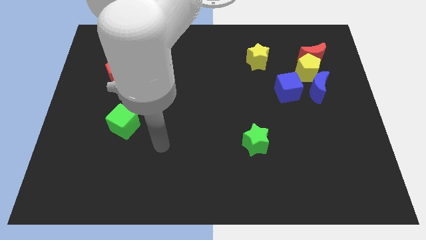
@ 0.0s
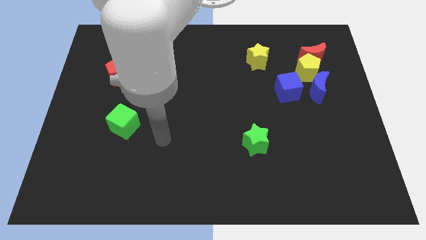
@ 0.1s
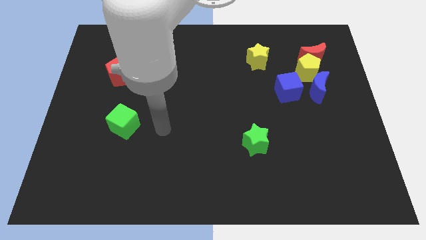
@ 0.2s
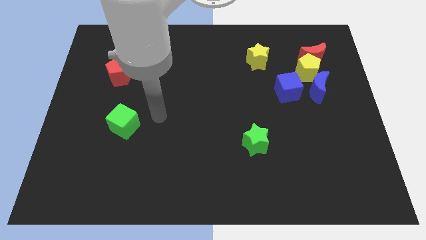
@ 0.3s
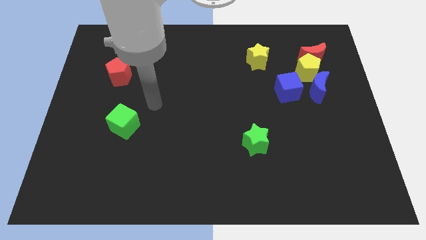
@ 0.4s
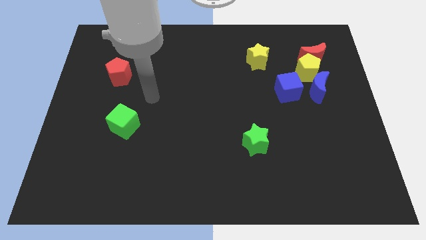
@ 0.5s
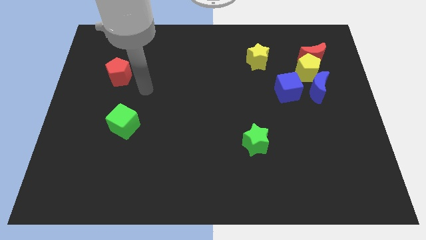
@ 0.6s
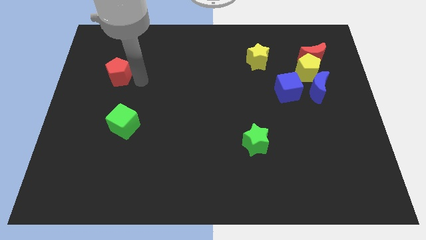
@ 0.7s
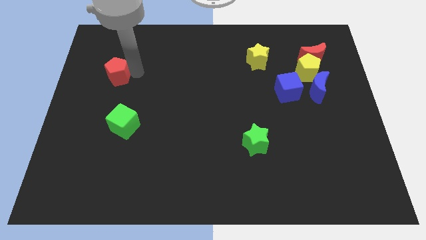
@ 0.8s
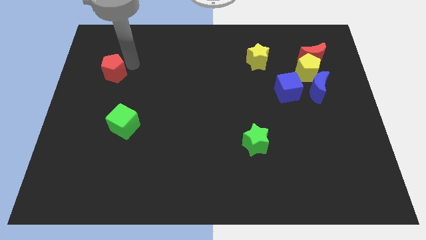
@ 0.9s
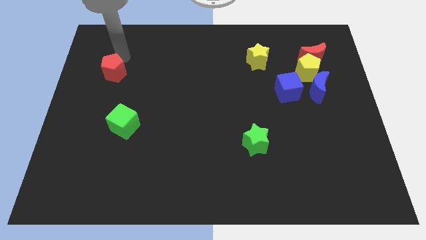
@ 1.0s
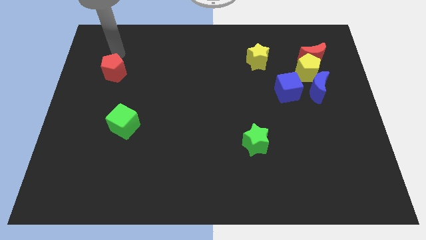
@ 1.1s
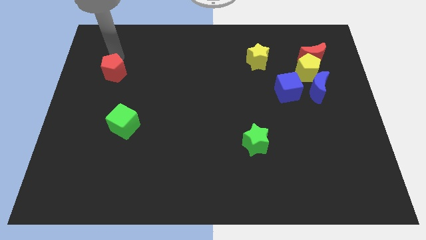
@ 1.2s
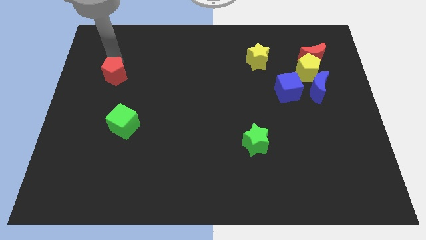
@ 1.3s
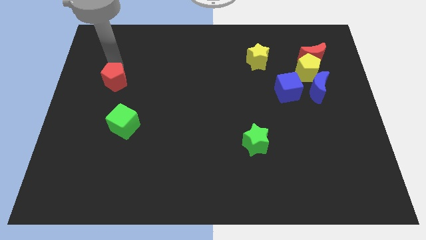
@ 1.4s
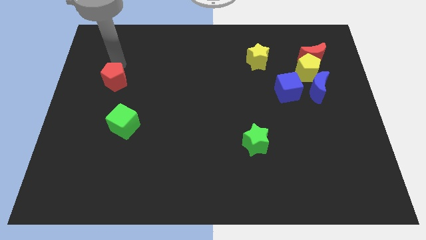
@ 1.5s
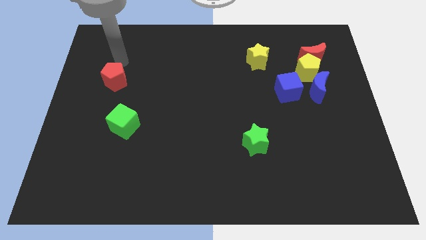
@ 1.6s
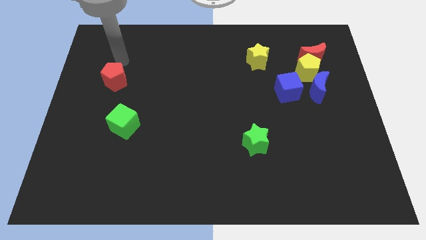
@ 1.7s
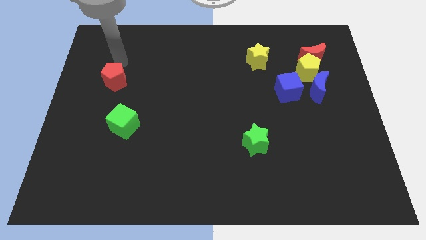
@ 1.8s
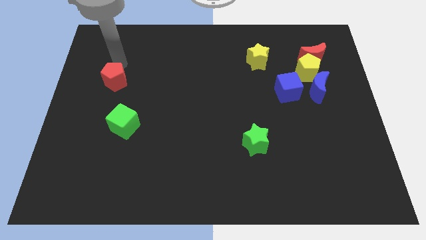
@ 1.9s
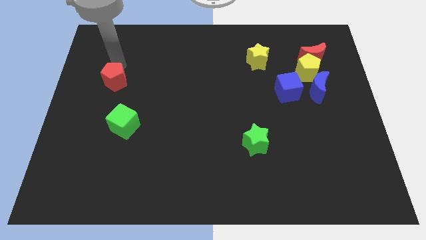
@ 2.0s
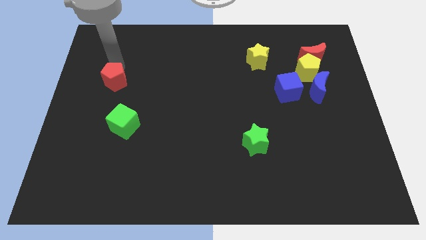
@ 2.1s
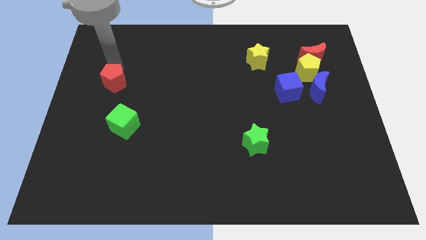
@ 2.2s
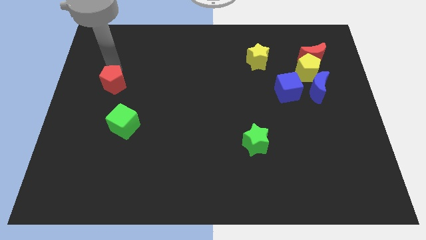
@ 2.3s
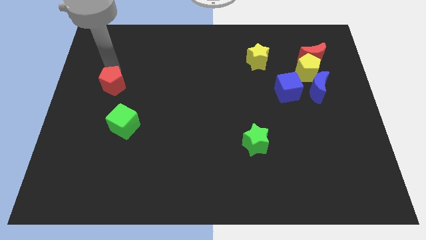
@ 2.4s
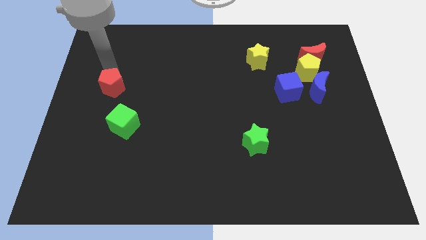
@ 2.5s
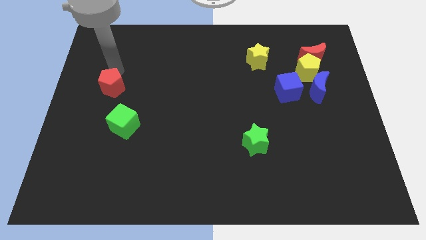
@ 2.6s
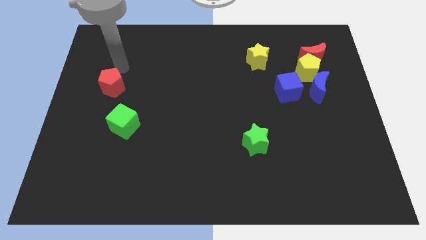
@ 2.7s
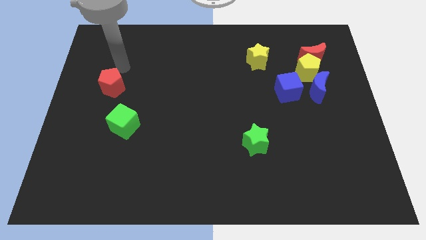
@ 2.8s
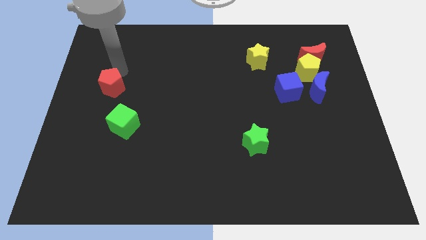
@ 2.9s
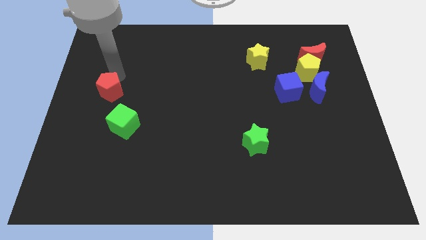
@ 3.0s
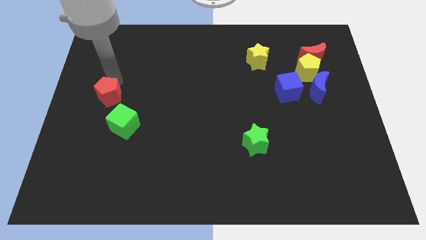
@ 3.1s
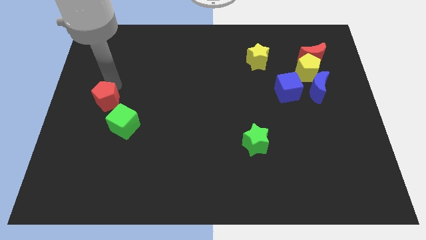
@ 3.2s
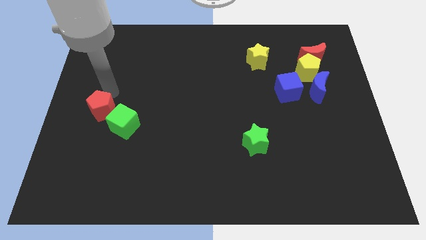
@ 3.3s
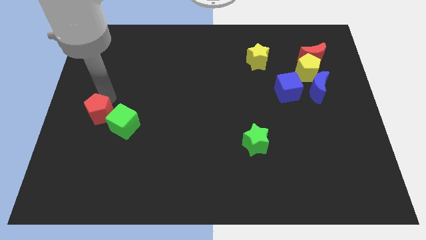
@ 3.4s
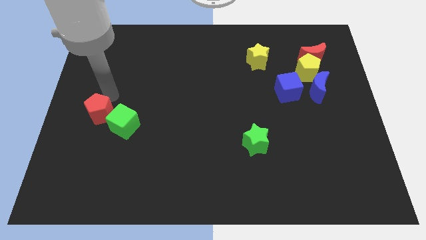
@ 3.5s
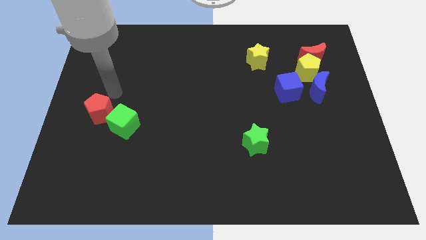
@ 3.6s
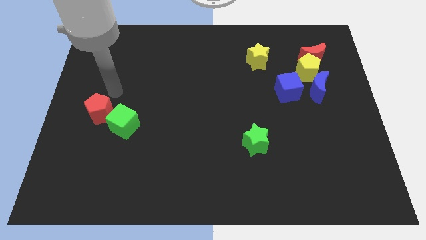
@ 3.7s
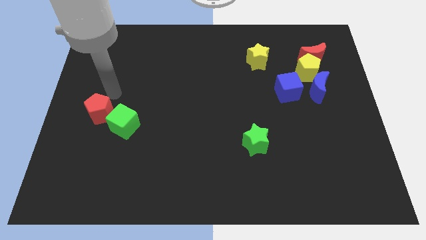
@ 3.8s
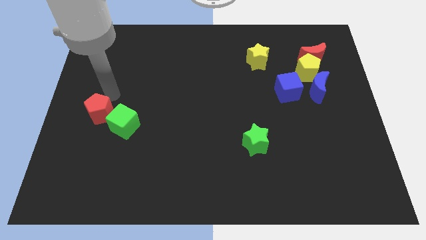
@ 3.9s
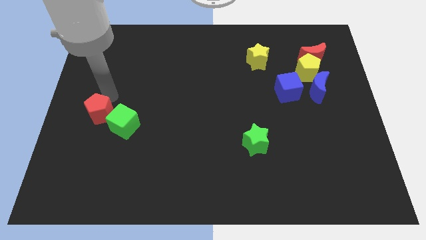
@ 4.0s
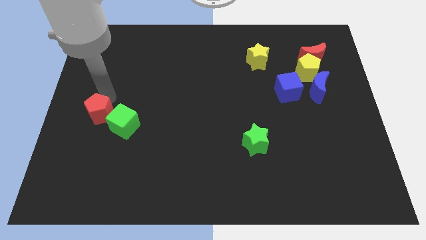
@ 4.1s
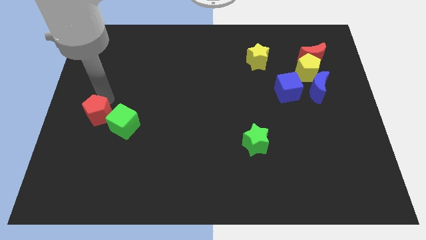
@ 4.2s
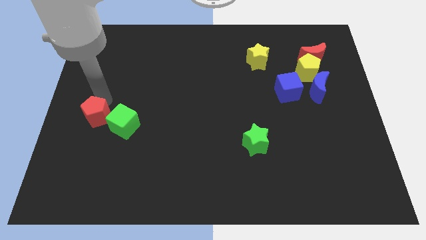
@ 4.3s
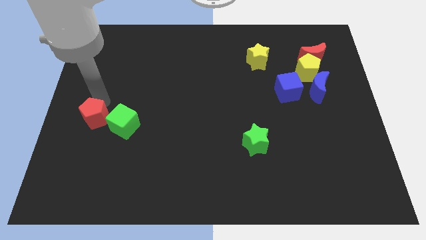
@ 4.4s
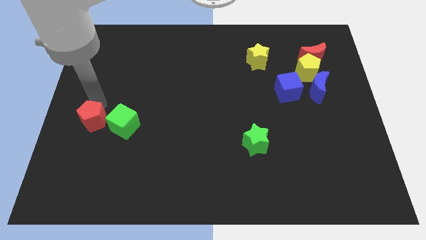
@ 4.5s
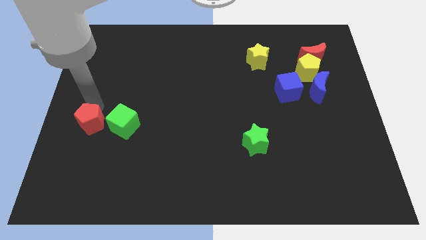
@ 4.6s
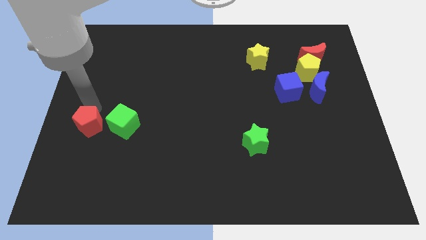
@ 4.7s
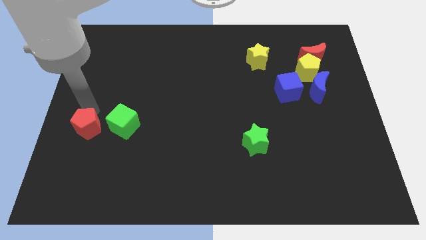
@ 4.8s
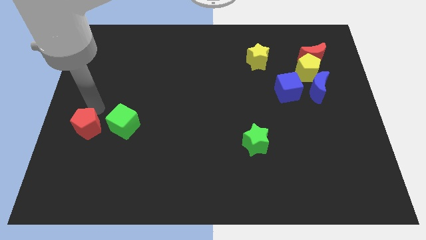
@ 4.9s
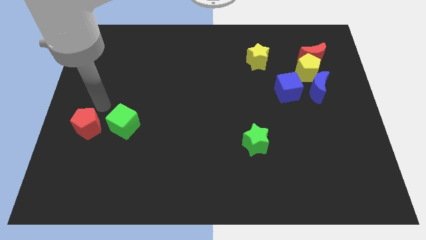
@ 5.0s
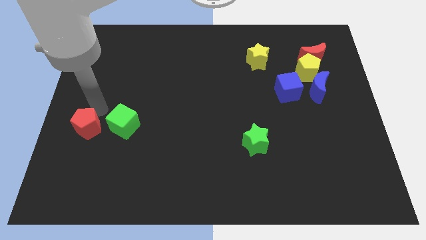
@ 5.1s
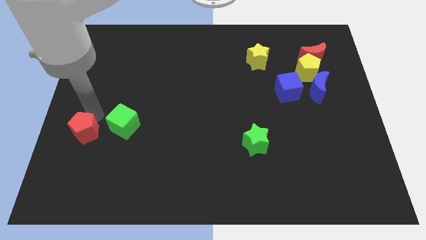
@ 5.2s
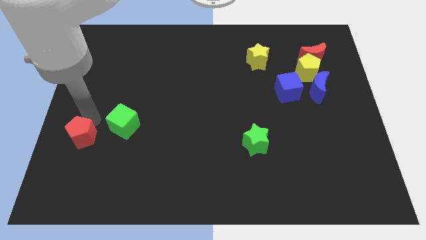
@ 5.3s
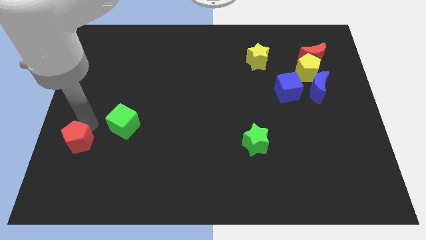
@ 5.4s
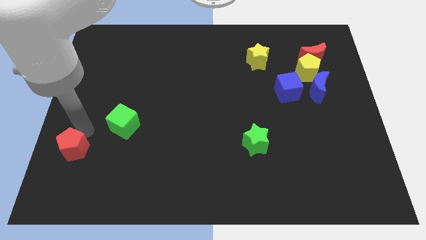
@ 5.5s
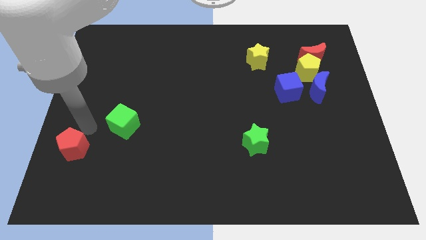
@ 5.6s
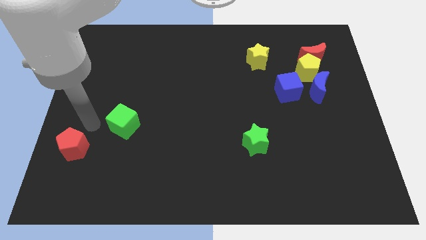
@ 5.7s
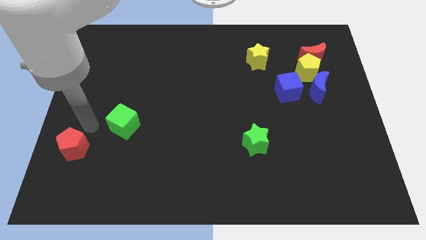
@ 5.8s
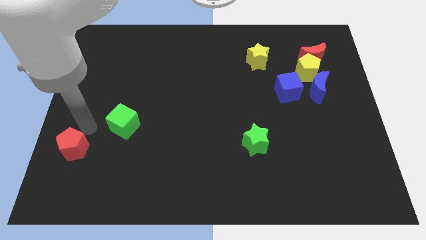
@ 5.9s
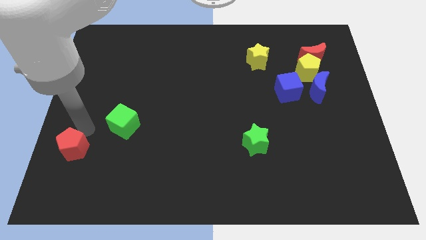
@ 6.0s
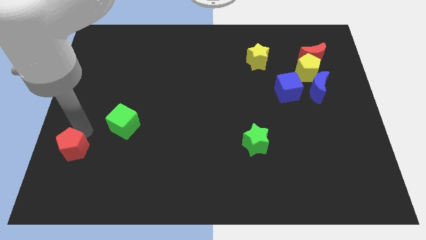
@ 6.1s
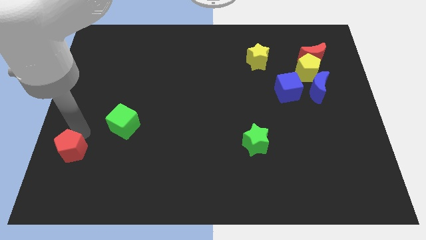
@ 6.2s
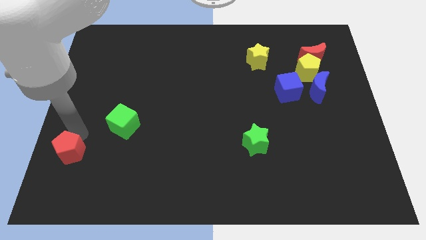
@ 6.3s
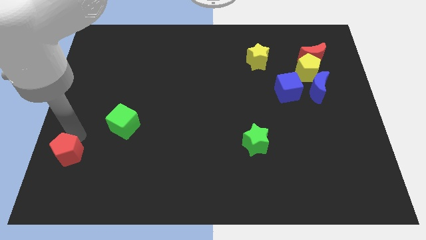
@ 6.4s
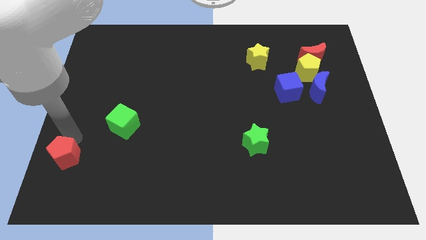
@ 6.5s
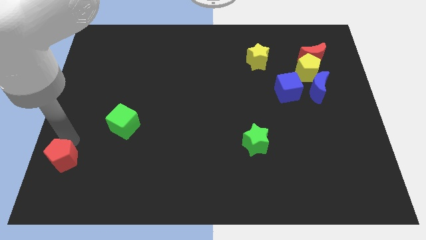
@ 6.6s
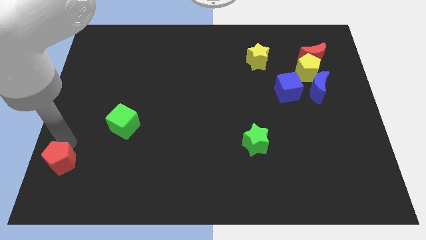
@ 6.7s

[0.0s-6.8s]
move the red pentagon to the lower left corner
